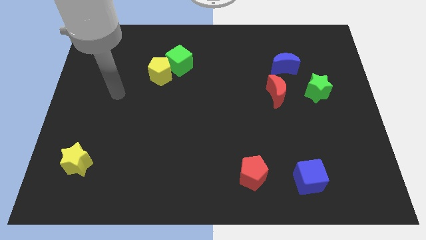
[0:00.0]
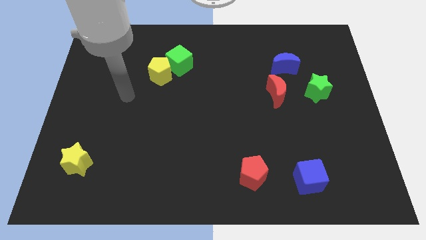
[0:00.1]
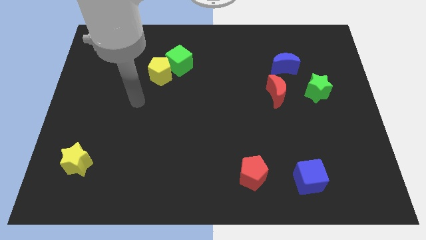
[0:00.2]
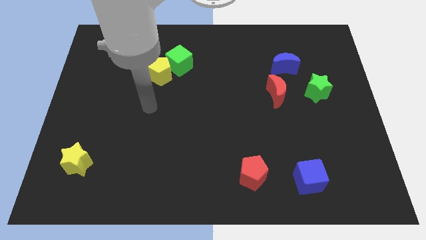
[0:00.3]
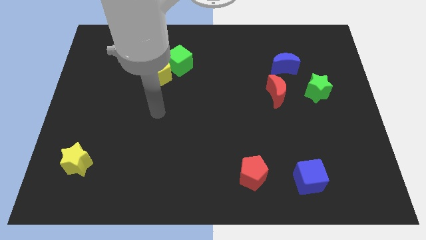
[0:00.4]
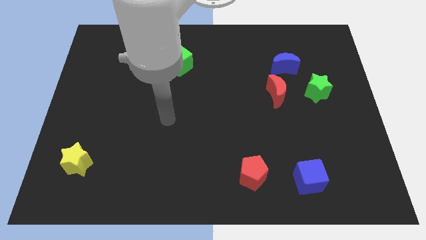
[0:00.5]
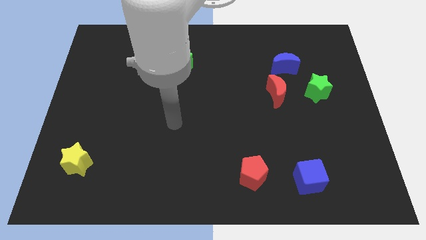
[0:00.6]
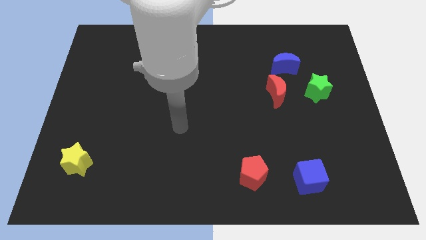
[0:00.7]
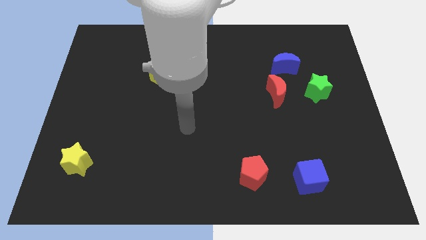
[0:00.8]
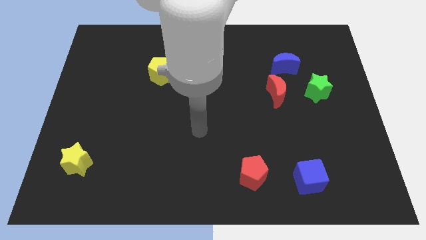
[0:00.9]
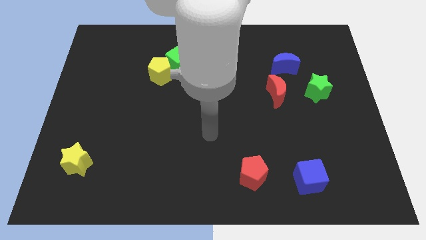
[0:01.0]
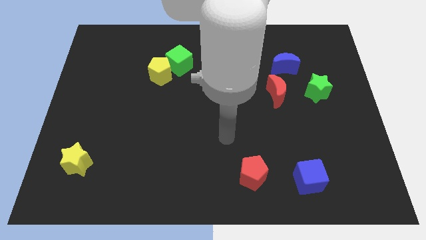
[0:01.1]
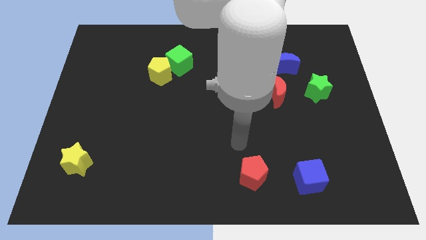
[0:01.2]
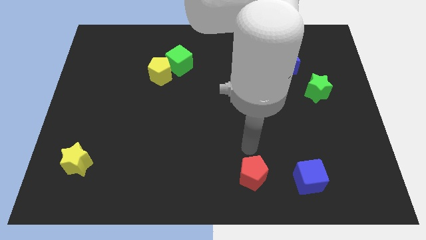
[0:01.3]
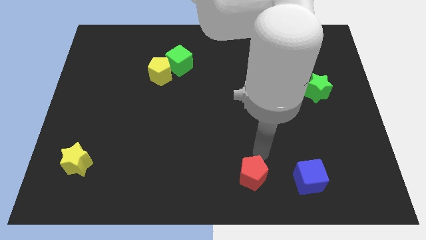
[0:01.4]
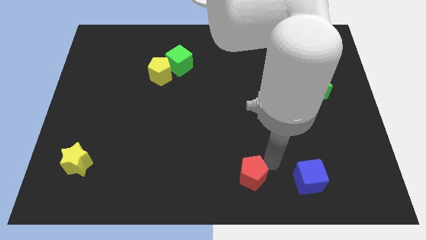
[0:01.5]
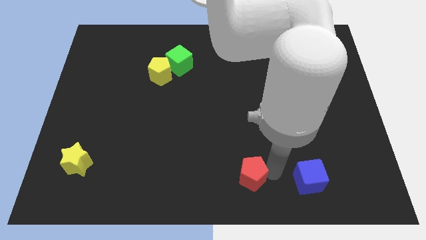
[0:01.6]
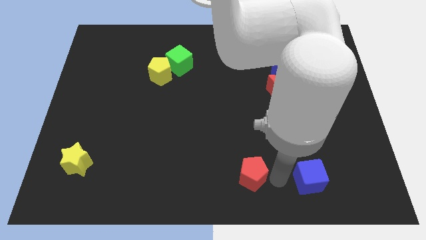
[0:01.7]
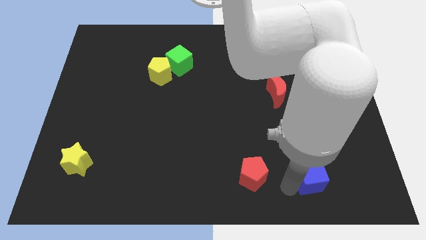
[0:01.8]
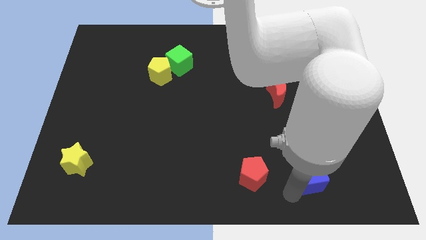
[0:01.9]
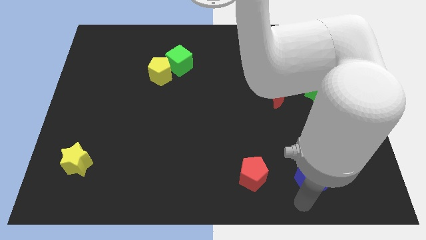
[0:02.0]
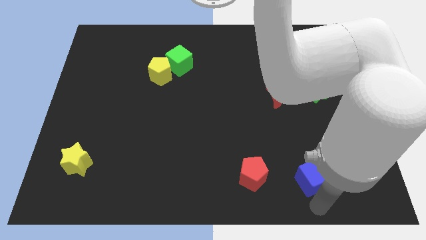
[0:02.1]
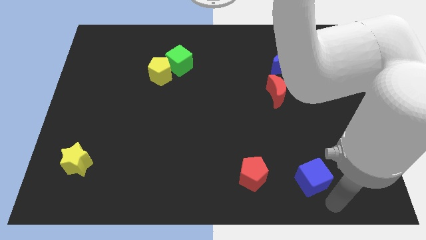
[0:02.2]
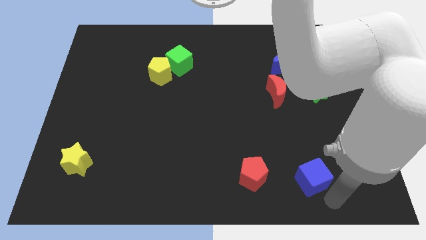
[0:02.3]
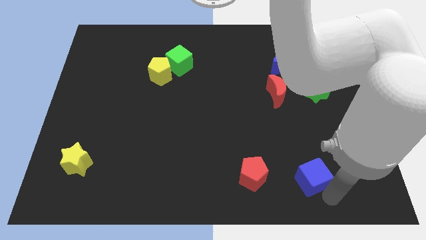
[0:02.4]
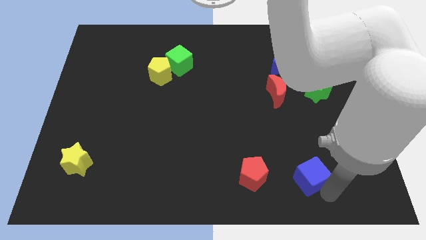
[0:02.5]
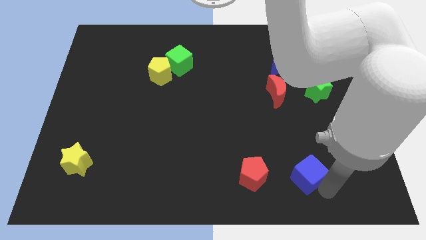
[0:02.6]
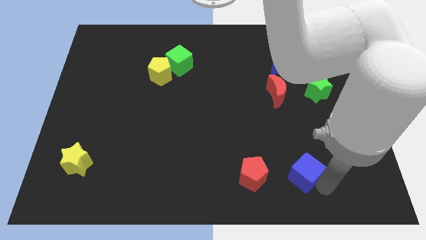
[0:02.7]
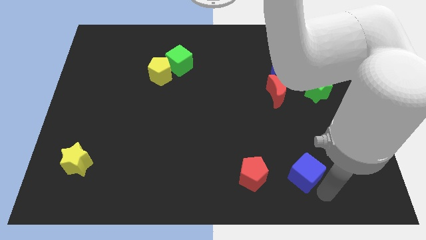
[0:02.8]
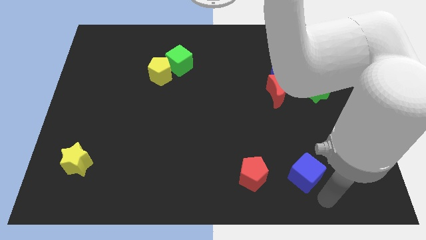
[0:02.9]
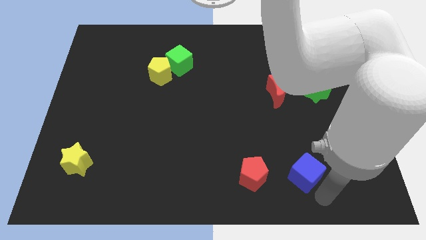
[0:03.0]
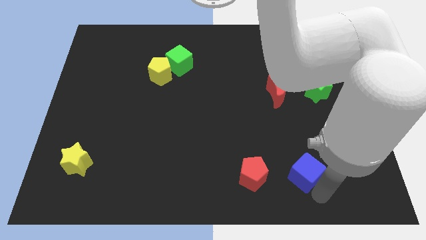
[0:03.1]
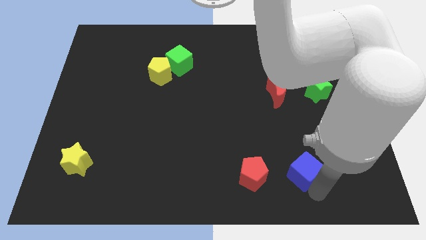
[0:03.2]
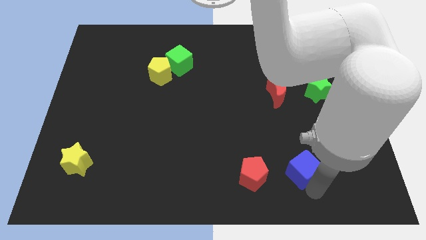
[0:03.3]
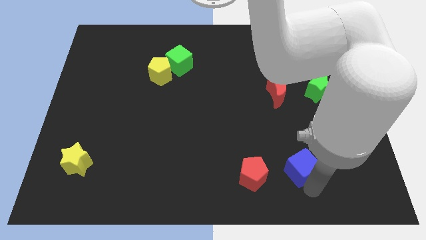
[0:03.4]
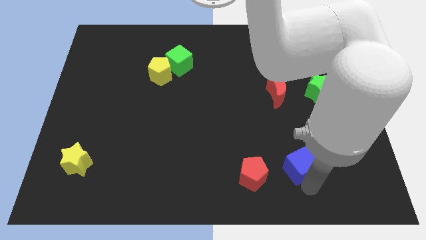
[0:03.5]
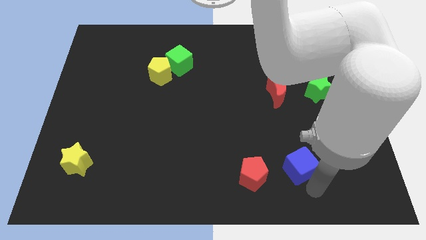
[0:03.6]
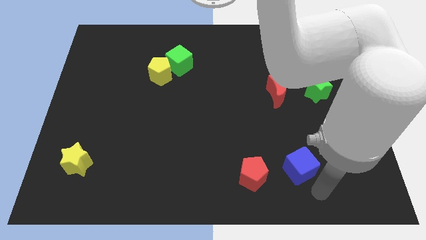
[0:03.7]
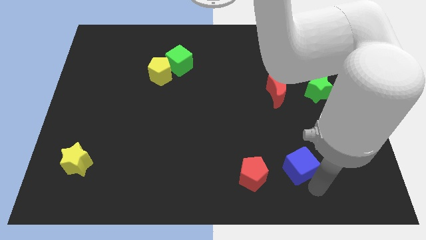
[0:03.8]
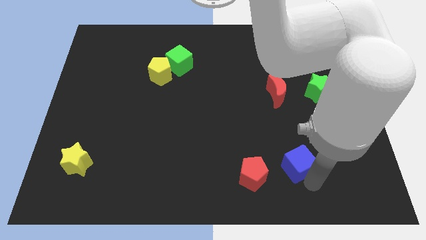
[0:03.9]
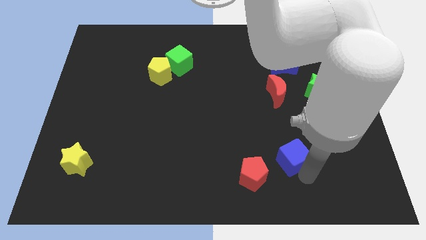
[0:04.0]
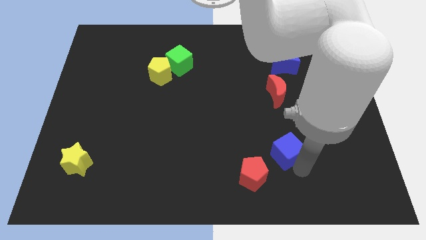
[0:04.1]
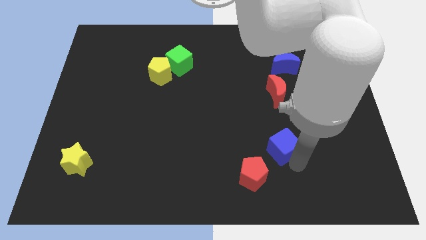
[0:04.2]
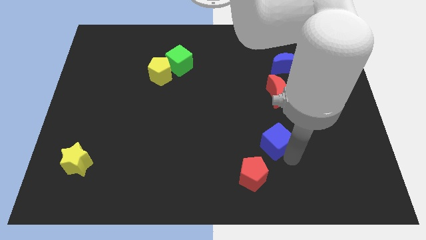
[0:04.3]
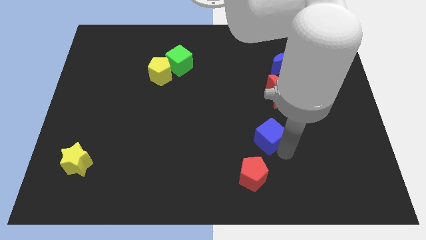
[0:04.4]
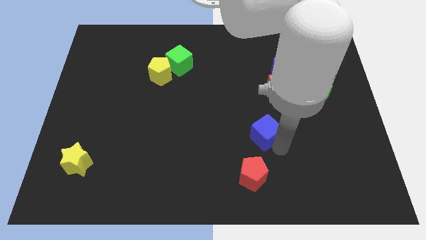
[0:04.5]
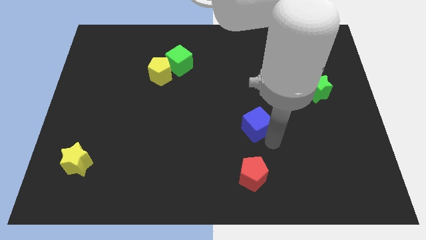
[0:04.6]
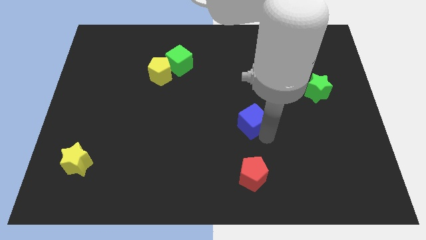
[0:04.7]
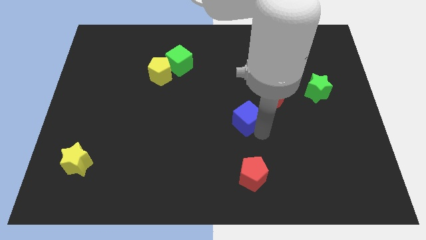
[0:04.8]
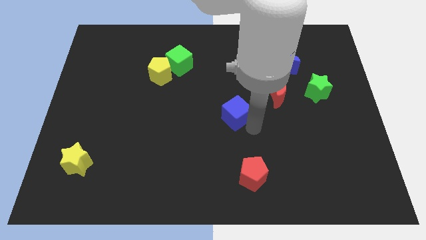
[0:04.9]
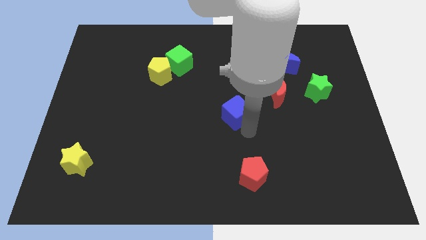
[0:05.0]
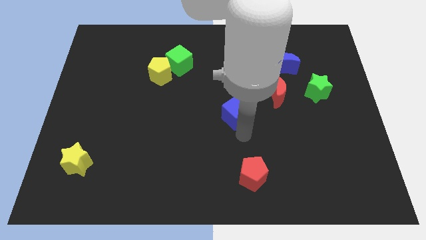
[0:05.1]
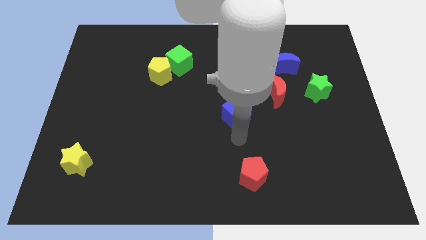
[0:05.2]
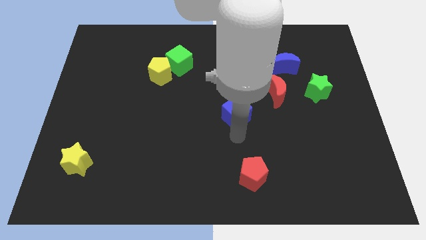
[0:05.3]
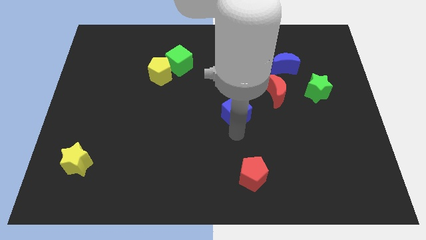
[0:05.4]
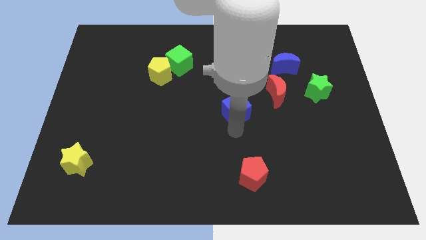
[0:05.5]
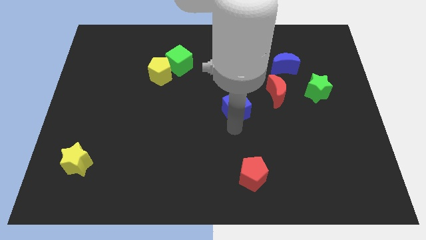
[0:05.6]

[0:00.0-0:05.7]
move the blue cube left of the red moon

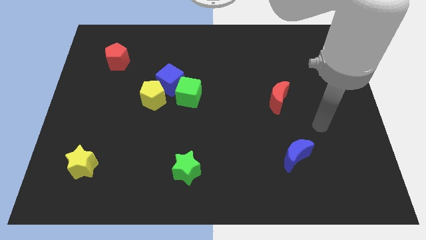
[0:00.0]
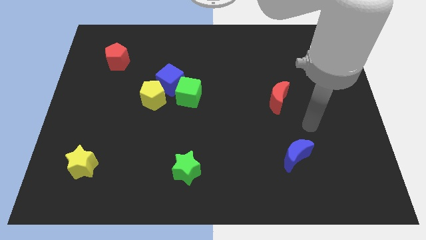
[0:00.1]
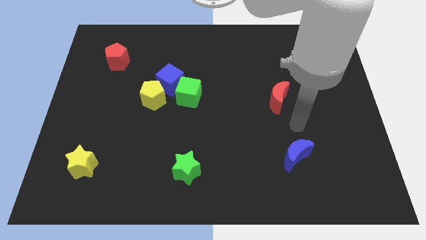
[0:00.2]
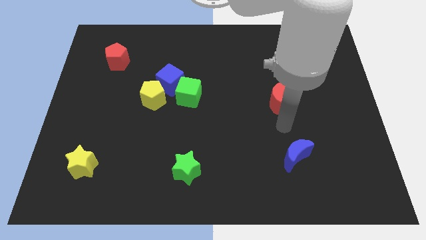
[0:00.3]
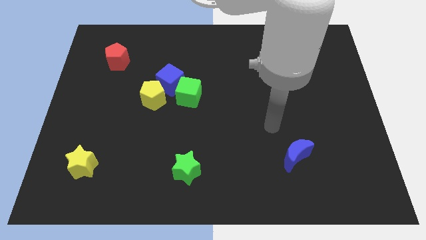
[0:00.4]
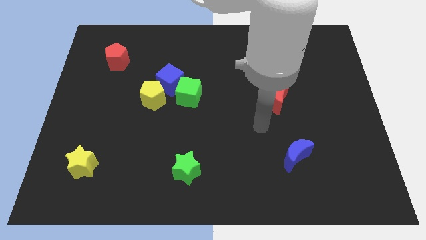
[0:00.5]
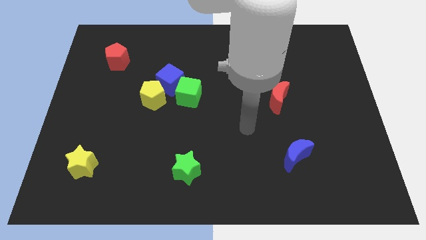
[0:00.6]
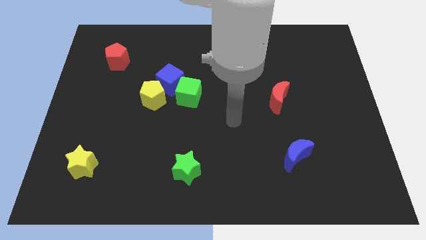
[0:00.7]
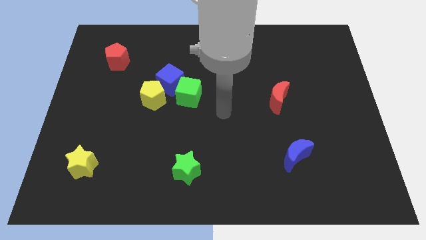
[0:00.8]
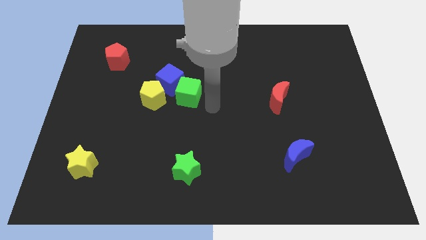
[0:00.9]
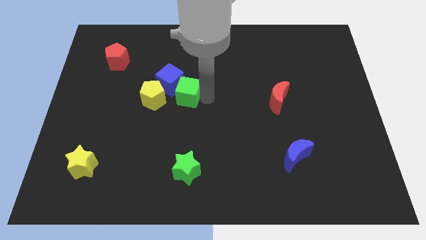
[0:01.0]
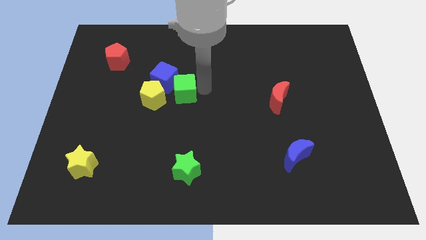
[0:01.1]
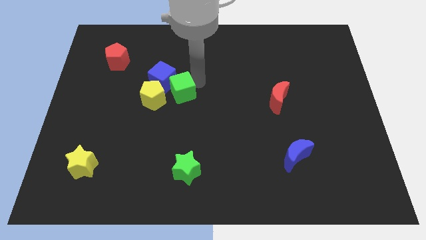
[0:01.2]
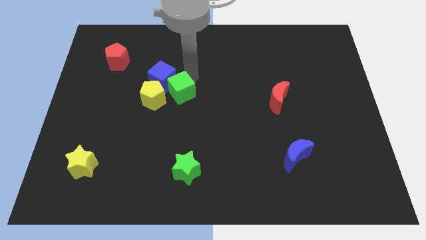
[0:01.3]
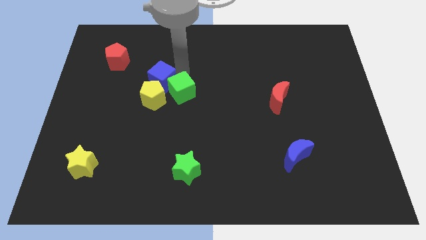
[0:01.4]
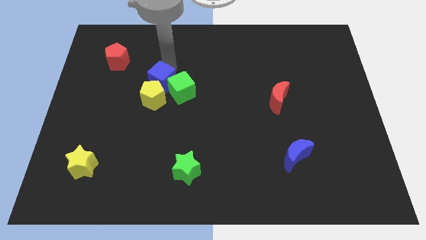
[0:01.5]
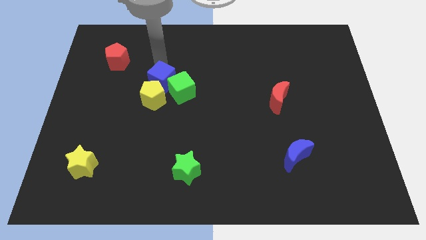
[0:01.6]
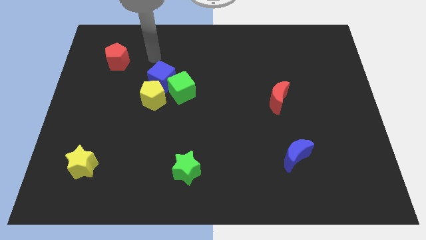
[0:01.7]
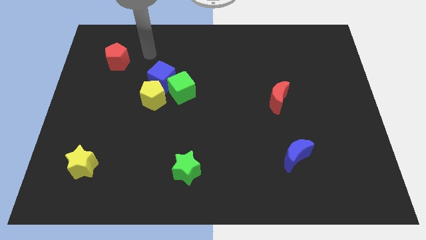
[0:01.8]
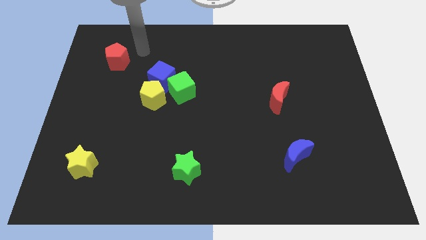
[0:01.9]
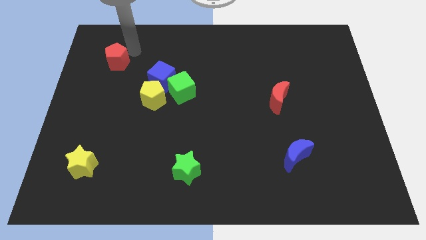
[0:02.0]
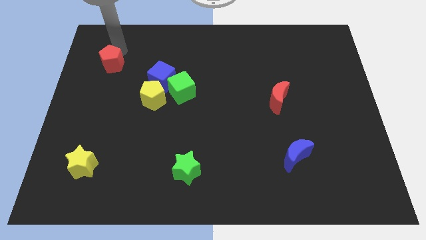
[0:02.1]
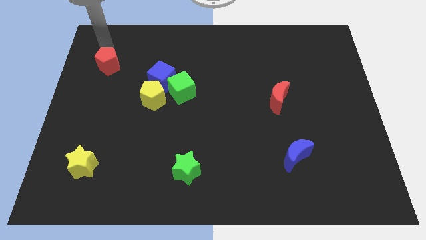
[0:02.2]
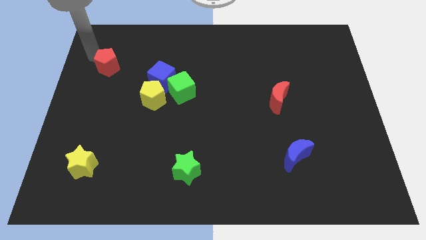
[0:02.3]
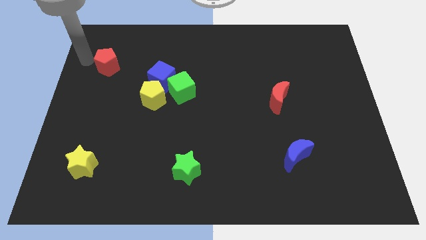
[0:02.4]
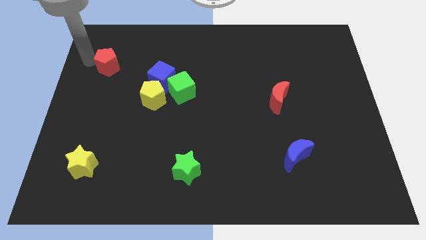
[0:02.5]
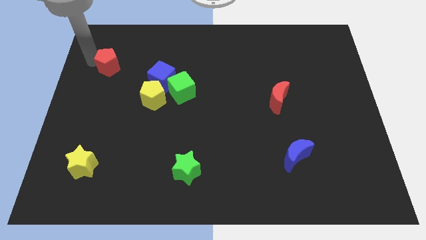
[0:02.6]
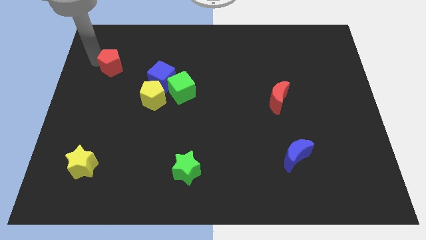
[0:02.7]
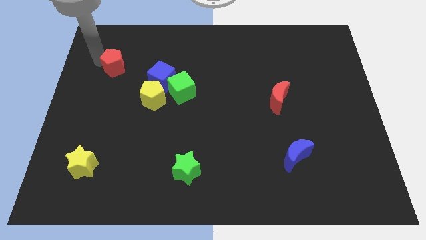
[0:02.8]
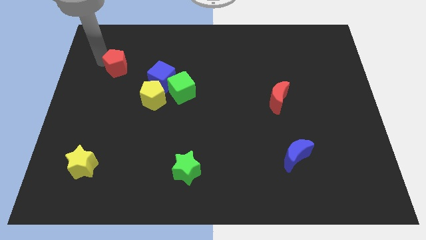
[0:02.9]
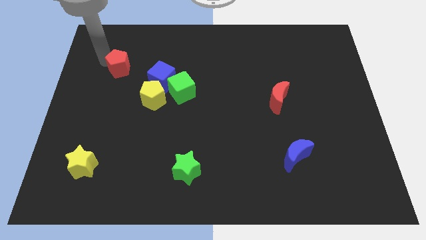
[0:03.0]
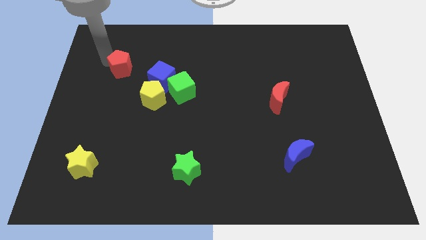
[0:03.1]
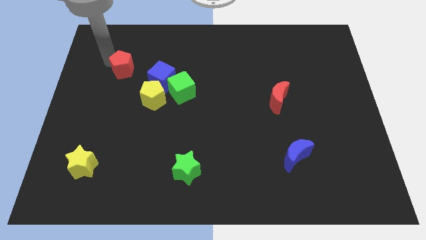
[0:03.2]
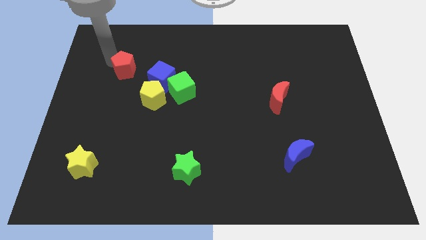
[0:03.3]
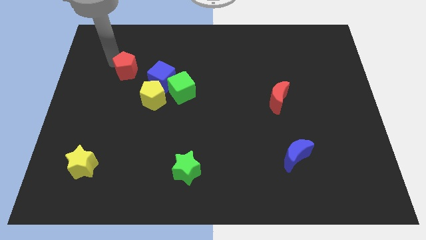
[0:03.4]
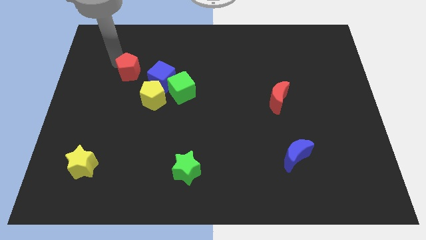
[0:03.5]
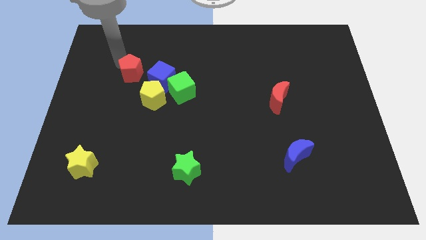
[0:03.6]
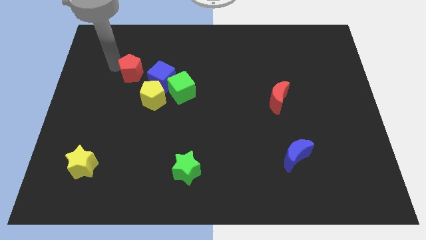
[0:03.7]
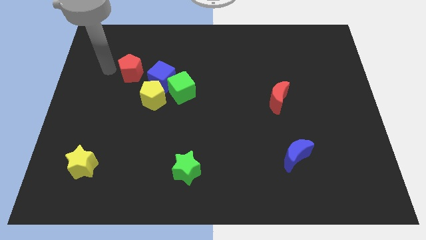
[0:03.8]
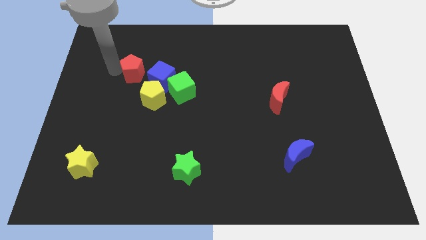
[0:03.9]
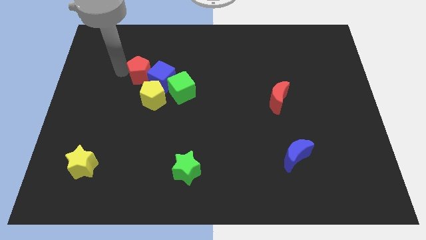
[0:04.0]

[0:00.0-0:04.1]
put the red pentagon to the top left side of the green cube
